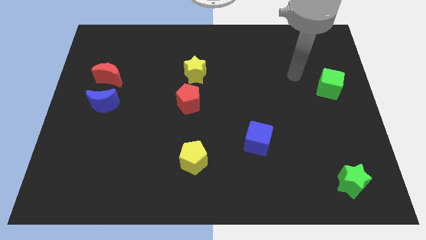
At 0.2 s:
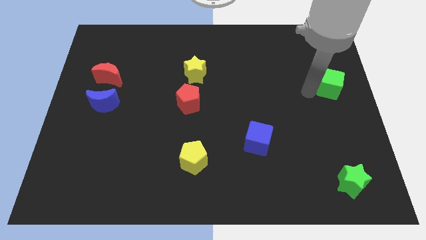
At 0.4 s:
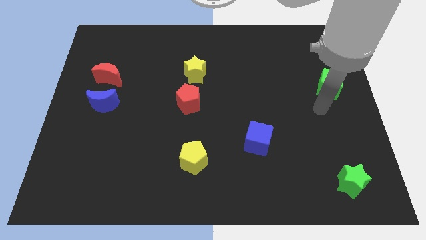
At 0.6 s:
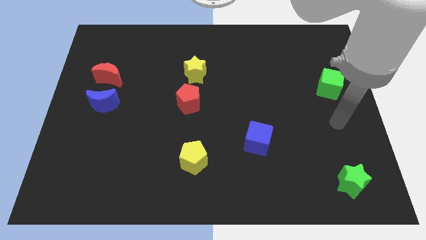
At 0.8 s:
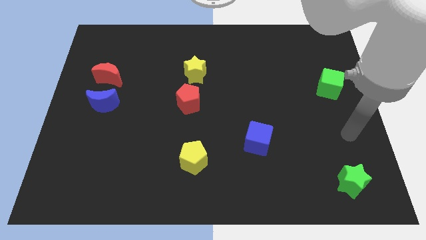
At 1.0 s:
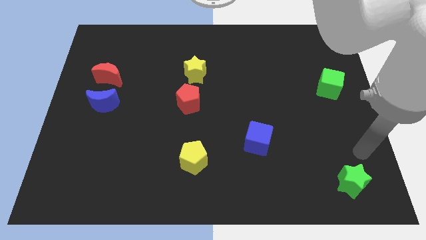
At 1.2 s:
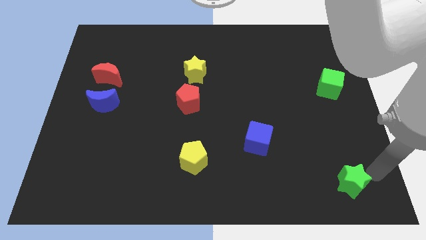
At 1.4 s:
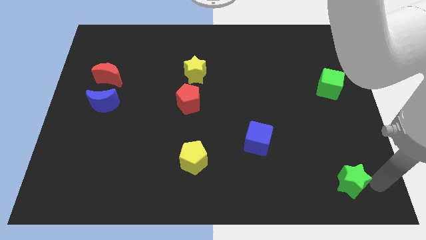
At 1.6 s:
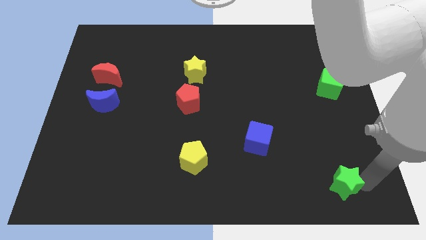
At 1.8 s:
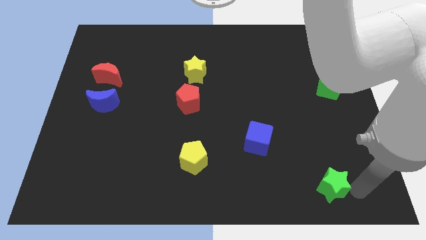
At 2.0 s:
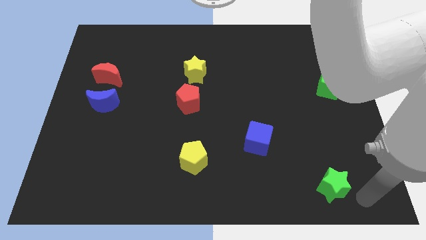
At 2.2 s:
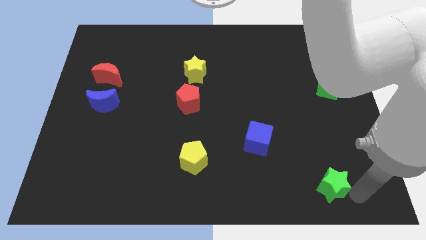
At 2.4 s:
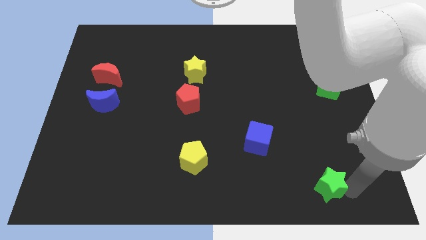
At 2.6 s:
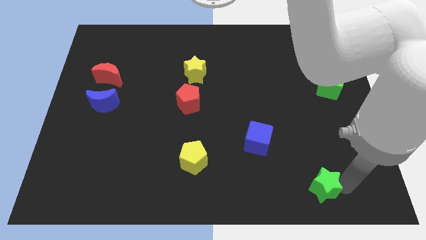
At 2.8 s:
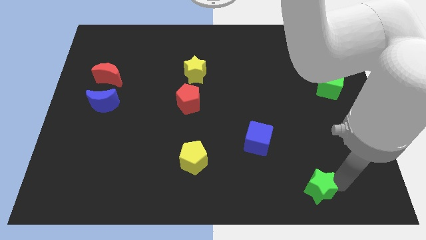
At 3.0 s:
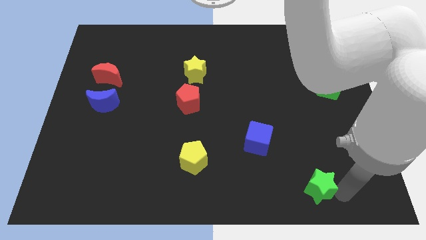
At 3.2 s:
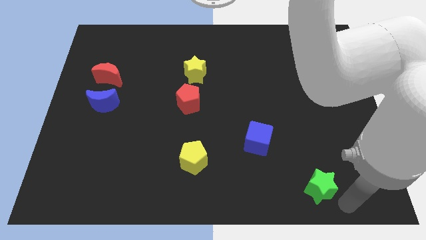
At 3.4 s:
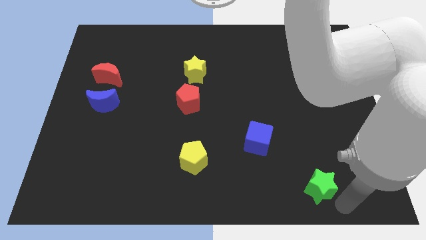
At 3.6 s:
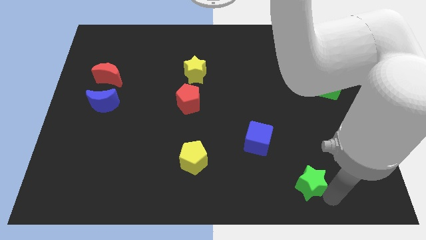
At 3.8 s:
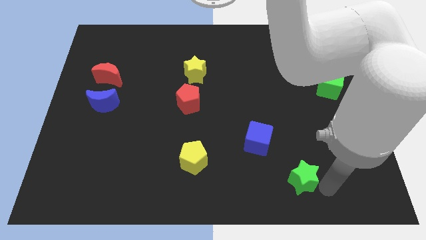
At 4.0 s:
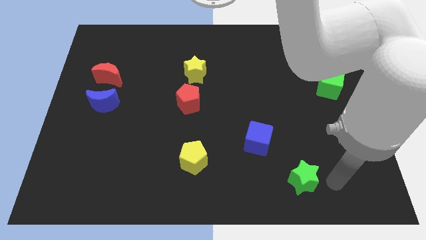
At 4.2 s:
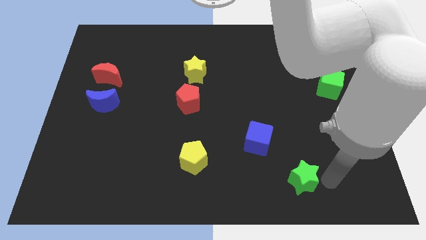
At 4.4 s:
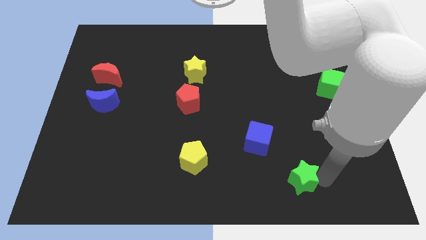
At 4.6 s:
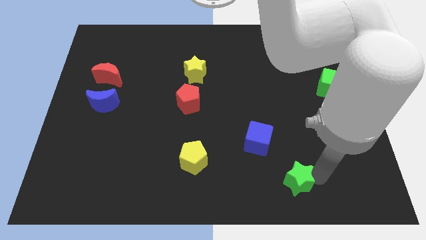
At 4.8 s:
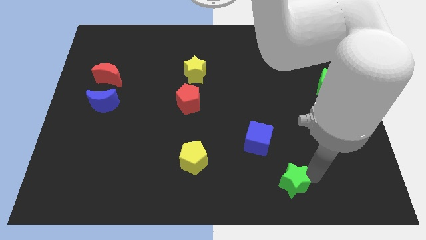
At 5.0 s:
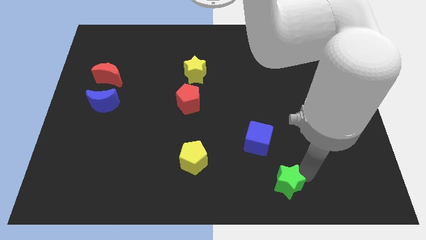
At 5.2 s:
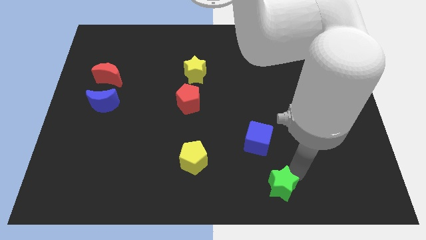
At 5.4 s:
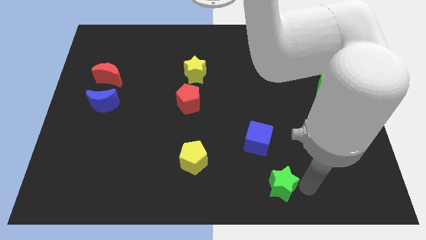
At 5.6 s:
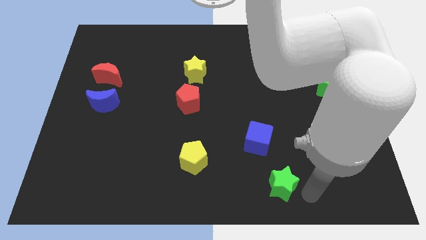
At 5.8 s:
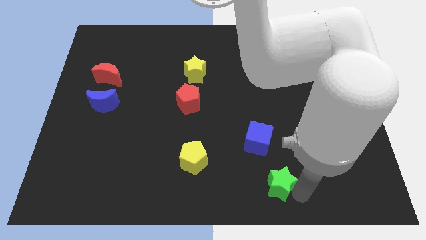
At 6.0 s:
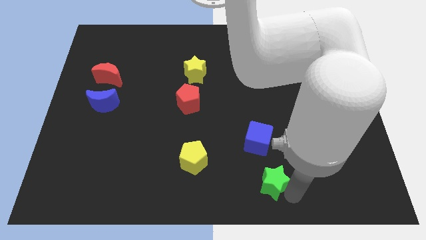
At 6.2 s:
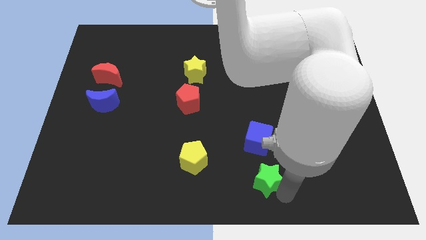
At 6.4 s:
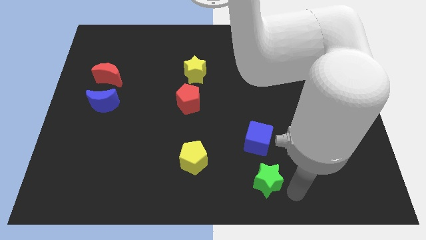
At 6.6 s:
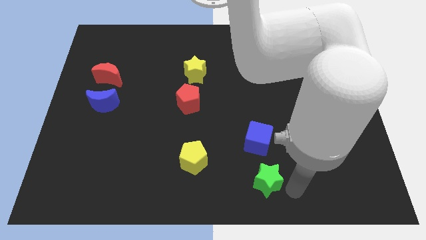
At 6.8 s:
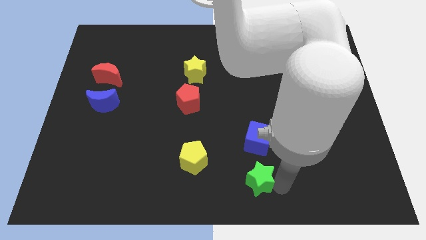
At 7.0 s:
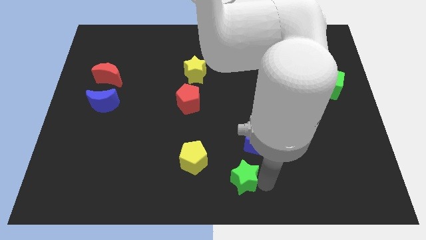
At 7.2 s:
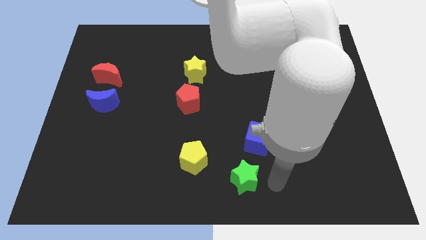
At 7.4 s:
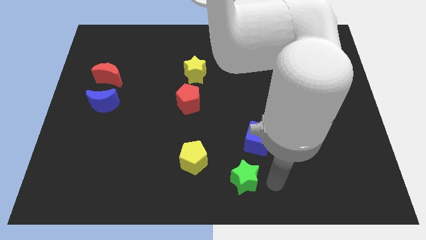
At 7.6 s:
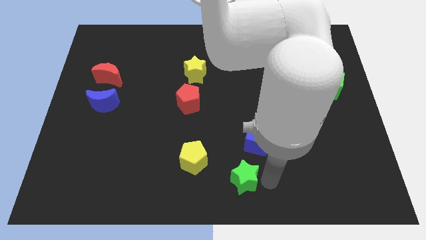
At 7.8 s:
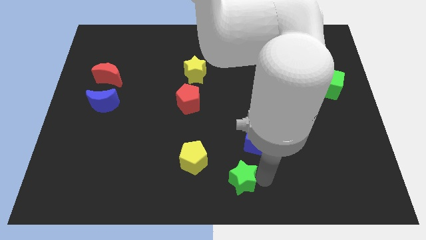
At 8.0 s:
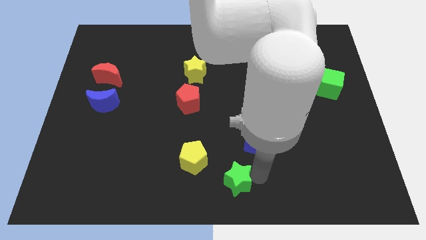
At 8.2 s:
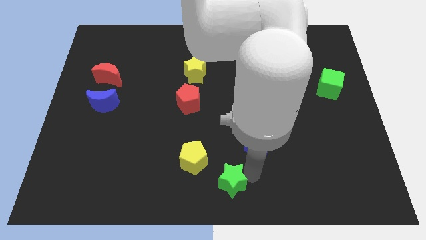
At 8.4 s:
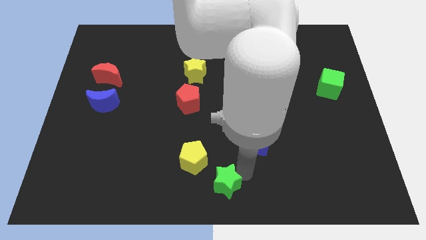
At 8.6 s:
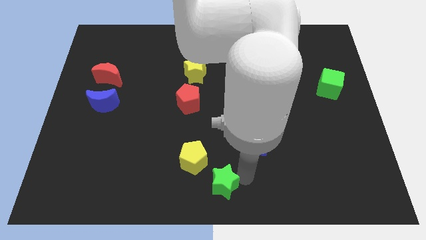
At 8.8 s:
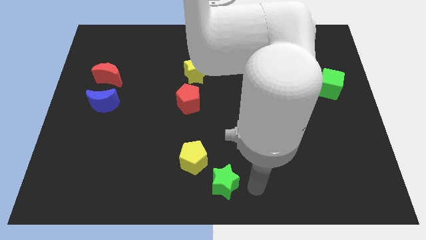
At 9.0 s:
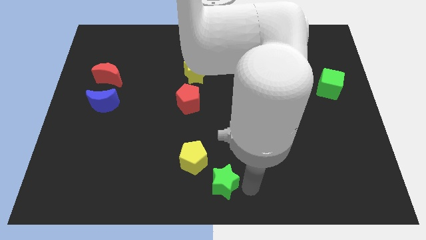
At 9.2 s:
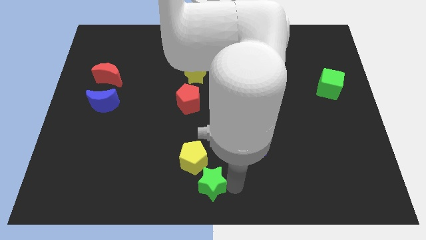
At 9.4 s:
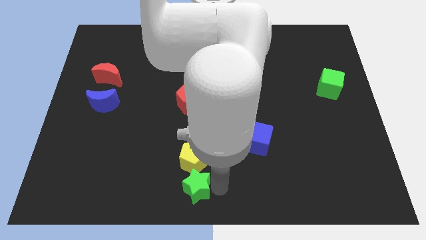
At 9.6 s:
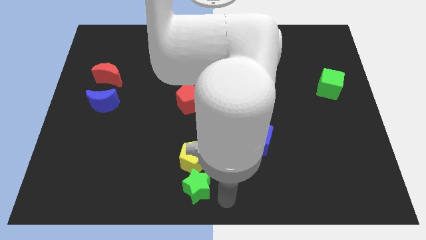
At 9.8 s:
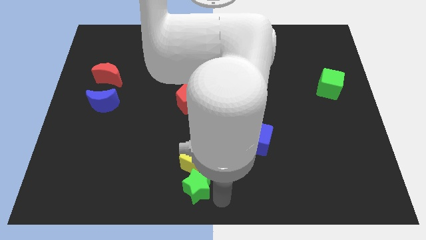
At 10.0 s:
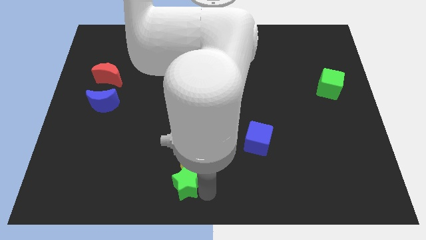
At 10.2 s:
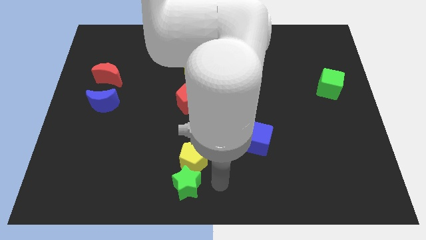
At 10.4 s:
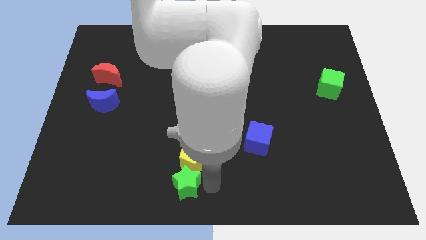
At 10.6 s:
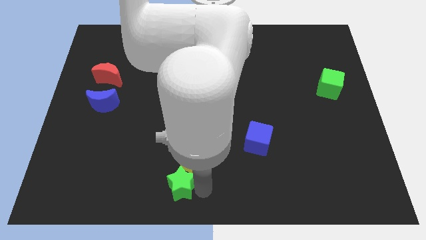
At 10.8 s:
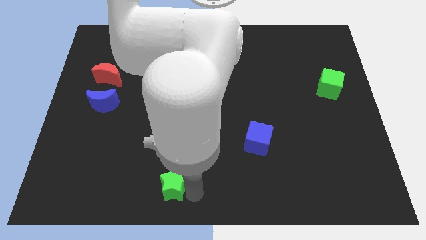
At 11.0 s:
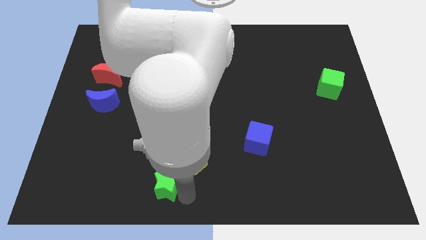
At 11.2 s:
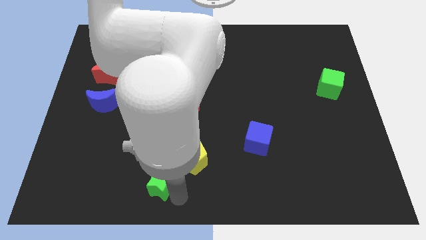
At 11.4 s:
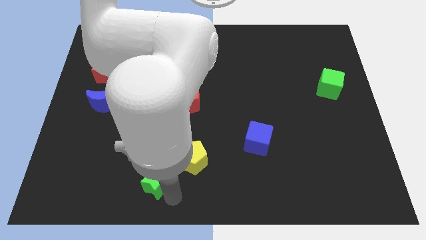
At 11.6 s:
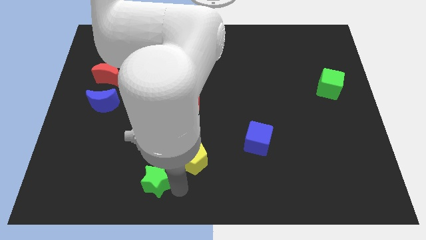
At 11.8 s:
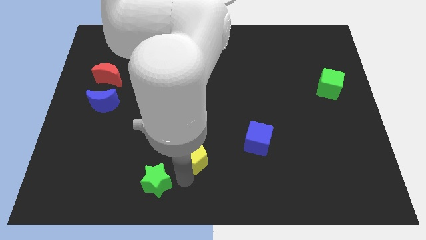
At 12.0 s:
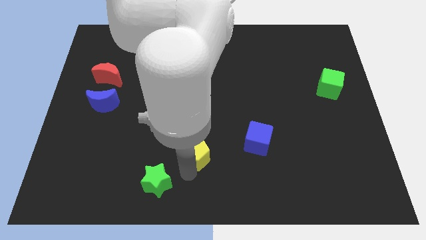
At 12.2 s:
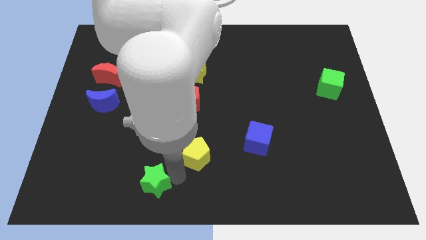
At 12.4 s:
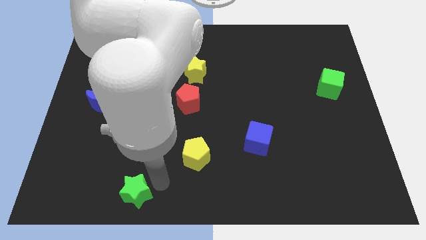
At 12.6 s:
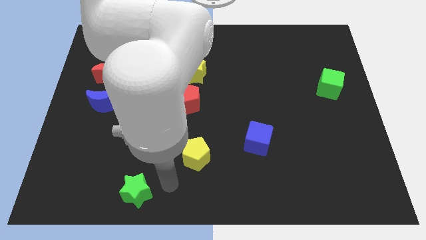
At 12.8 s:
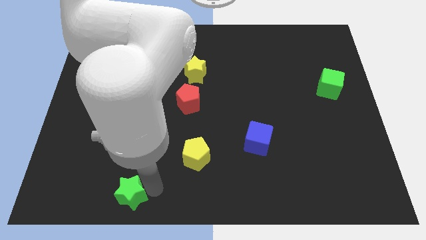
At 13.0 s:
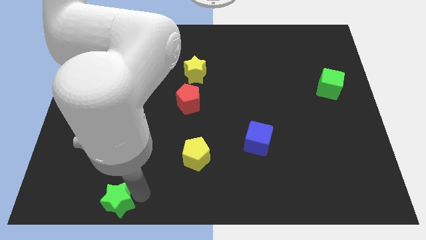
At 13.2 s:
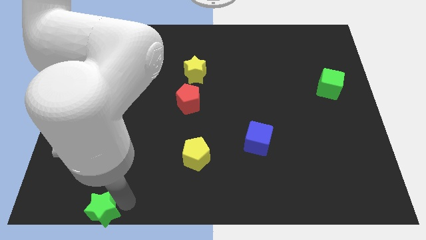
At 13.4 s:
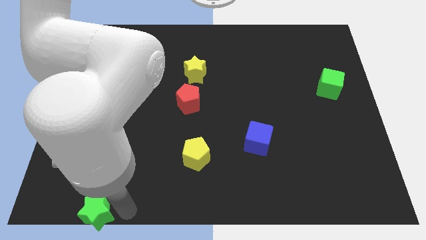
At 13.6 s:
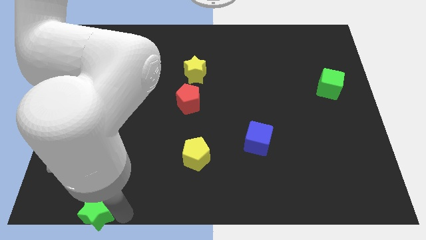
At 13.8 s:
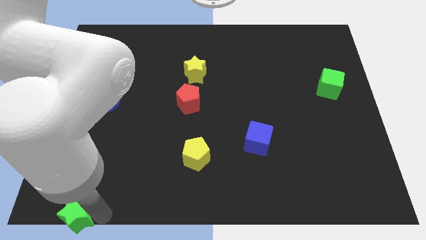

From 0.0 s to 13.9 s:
put the green star to the bottom left corner

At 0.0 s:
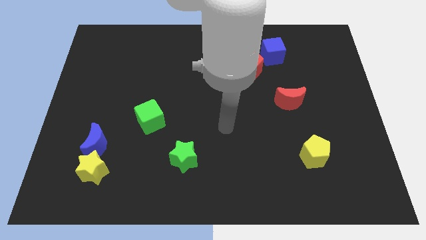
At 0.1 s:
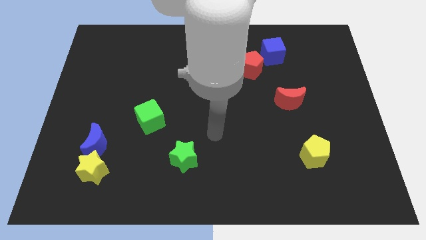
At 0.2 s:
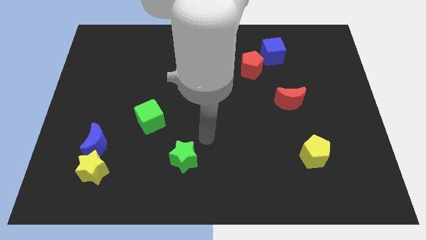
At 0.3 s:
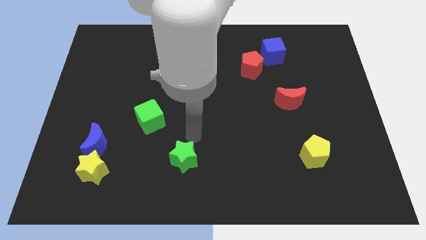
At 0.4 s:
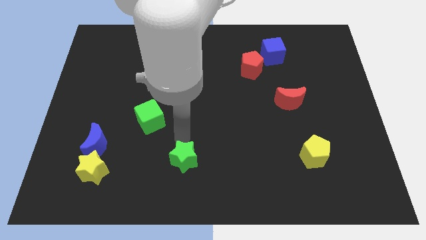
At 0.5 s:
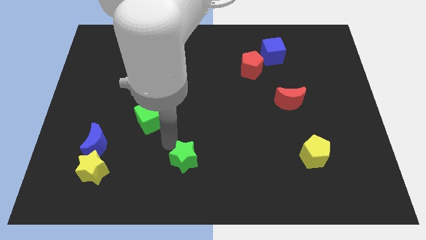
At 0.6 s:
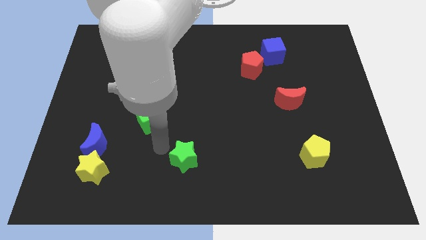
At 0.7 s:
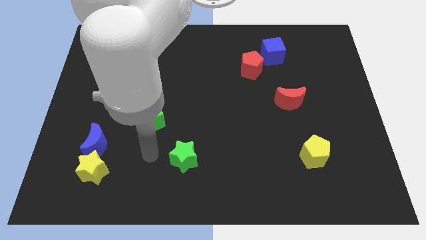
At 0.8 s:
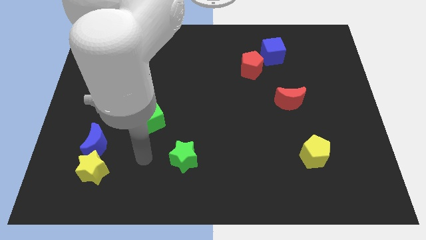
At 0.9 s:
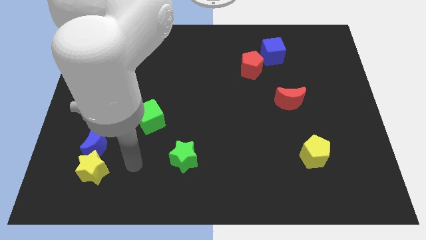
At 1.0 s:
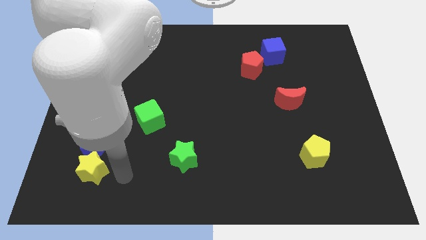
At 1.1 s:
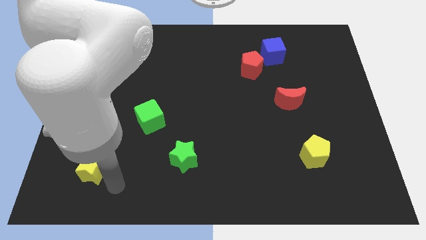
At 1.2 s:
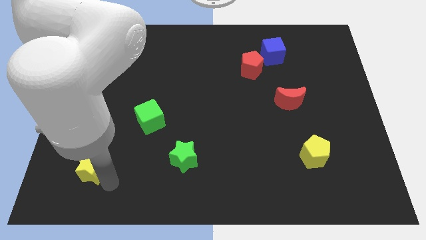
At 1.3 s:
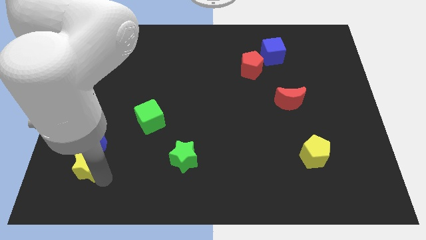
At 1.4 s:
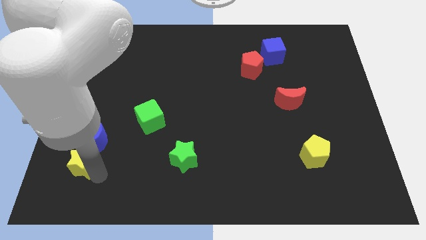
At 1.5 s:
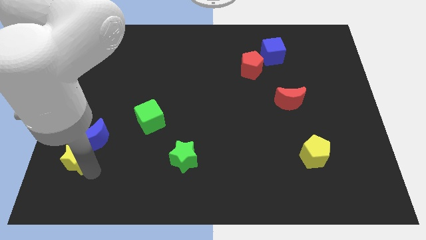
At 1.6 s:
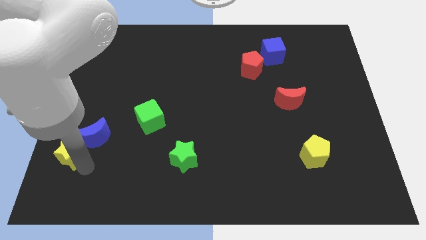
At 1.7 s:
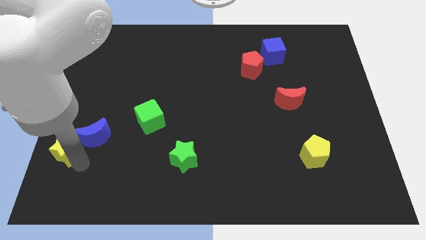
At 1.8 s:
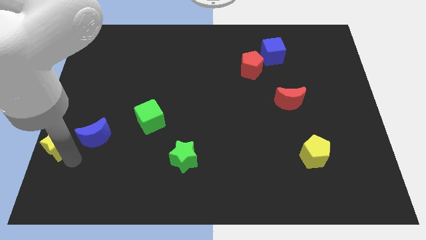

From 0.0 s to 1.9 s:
push the yellow star to the left side
